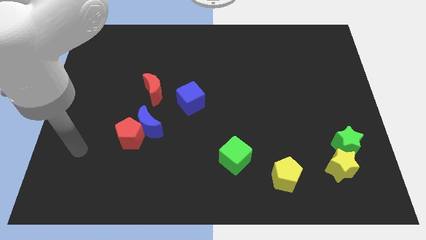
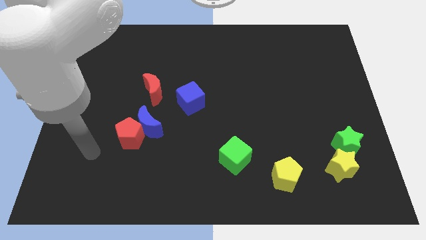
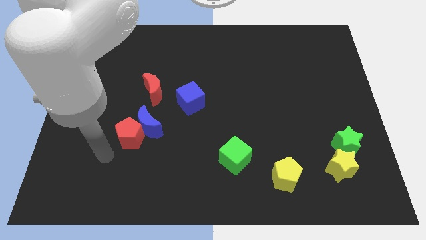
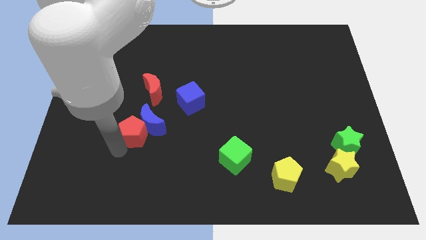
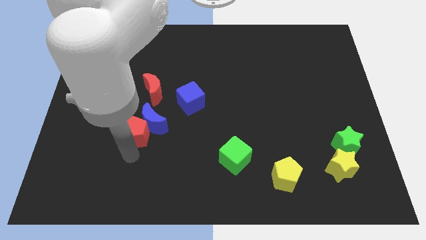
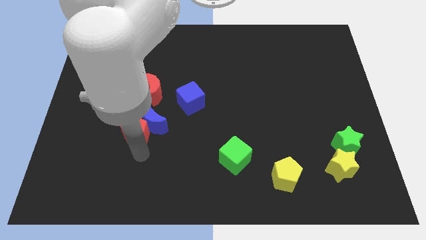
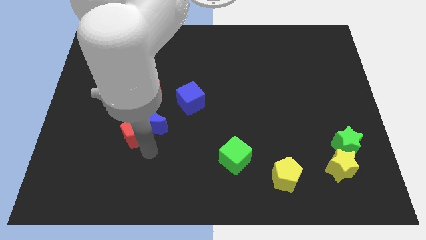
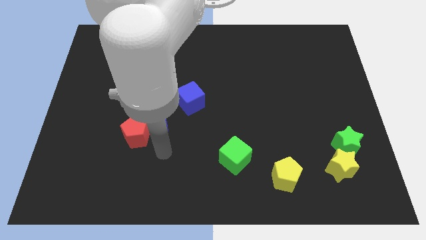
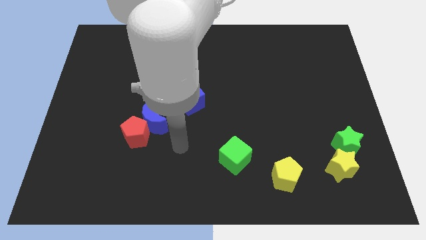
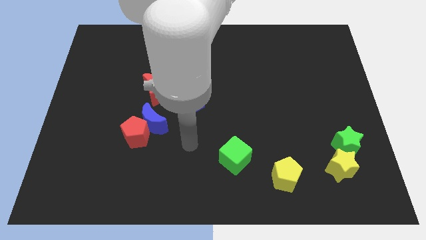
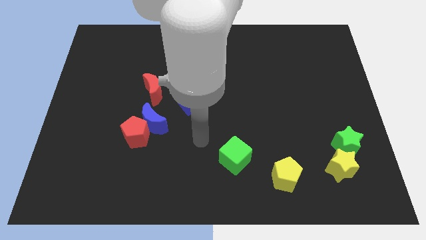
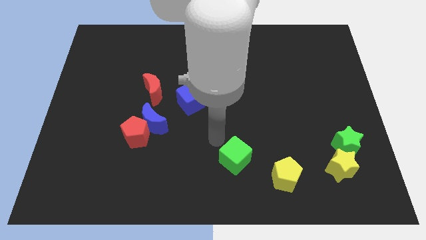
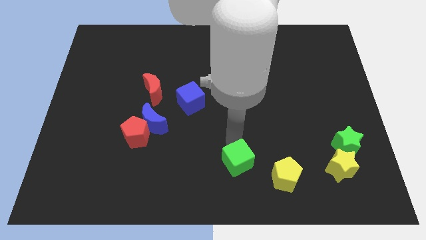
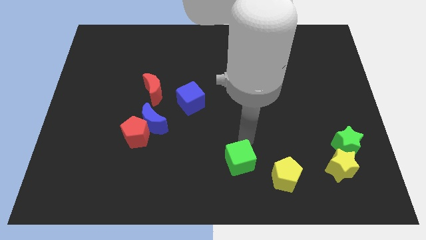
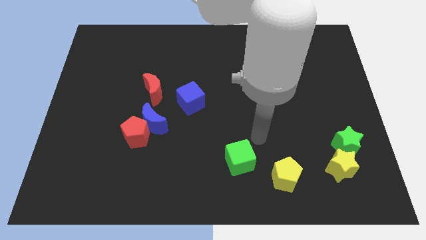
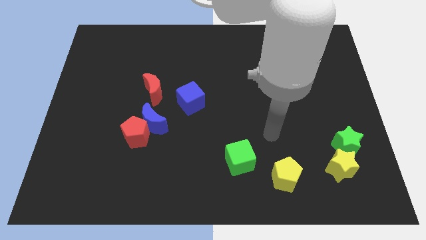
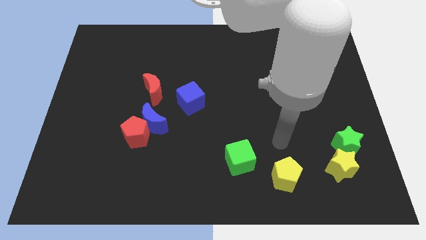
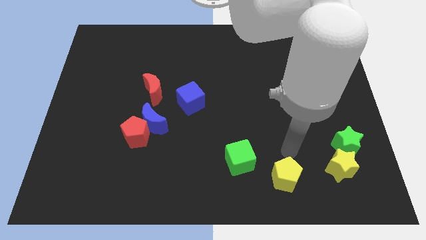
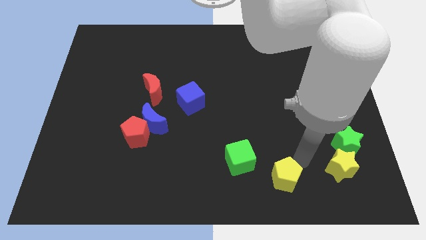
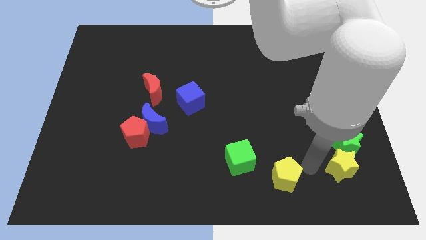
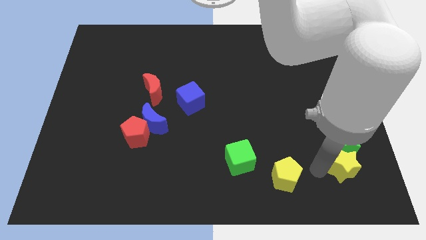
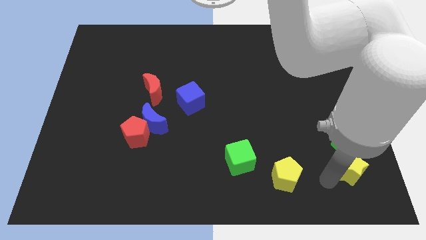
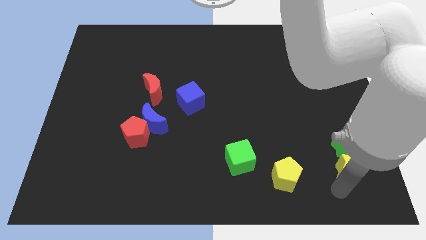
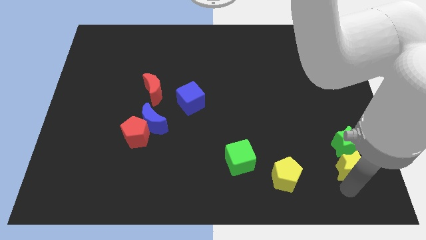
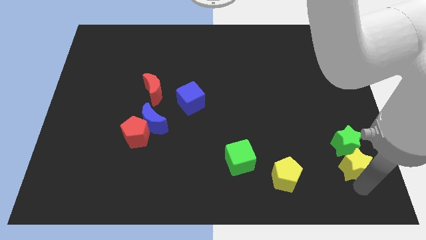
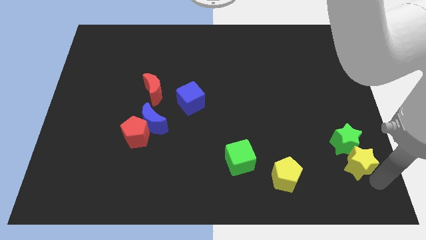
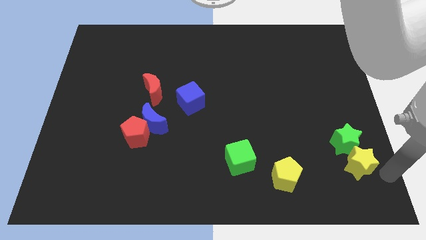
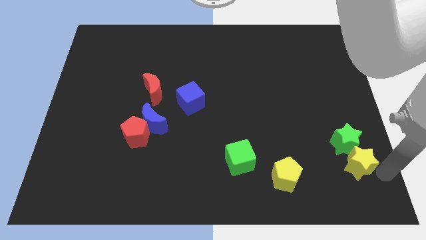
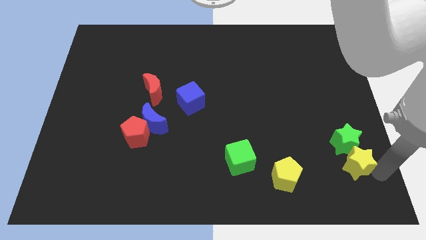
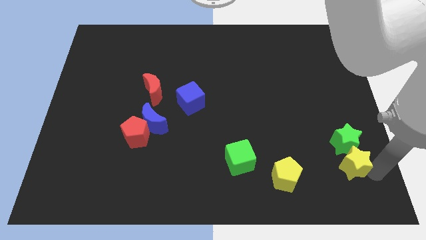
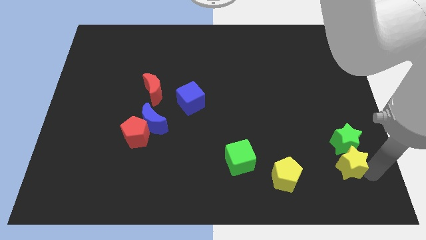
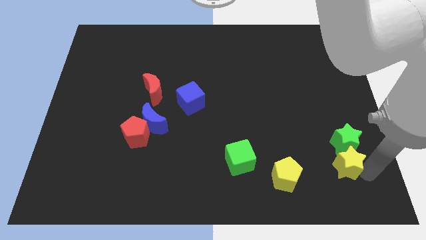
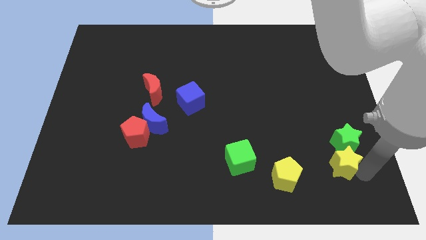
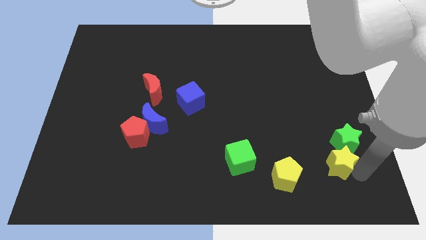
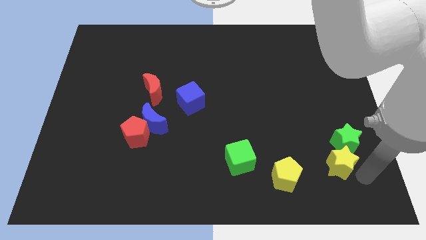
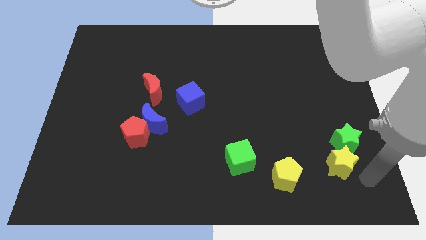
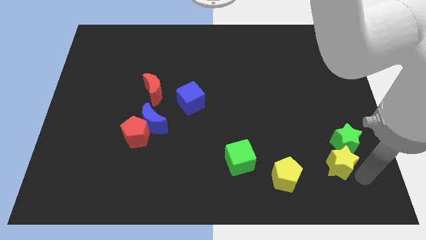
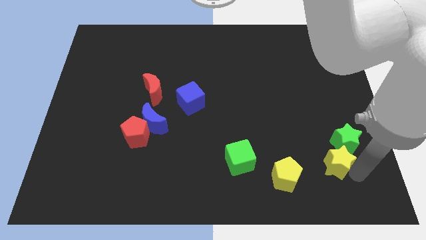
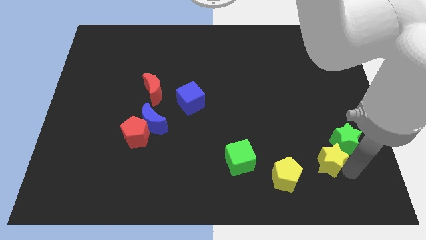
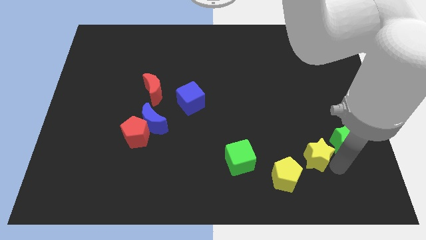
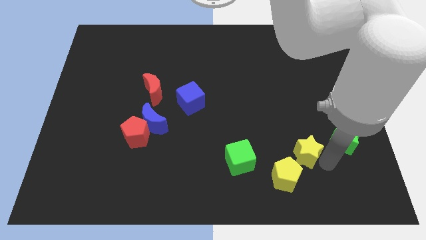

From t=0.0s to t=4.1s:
slightly push the yellow star up and left diagonally

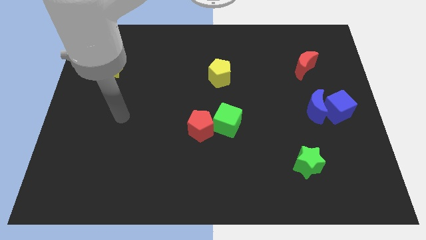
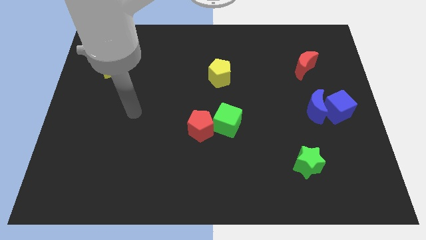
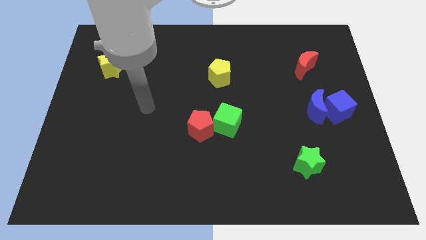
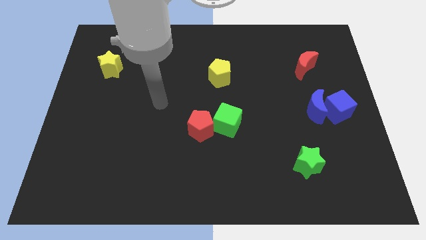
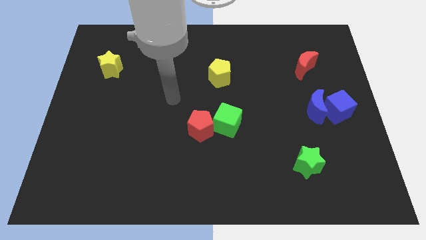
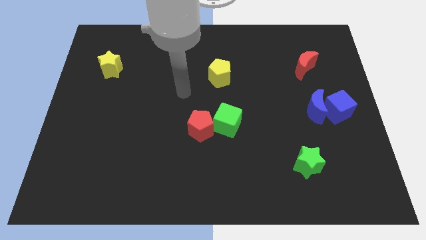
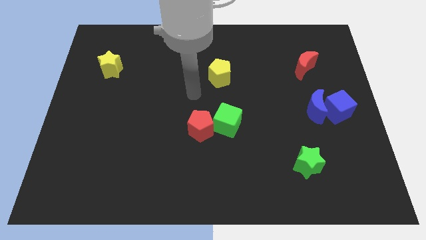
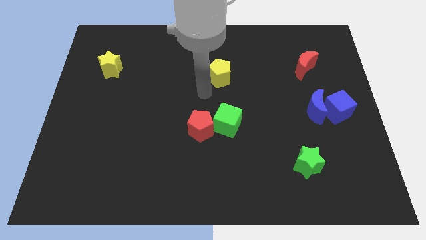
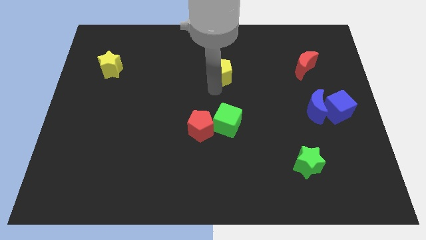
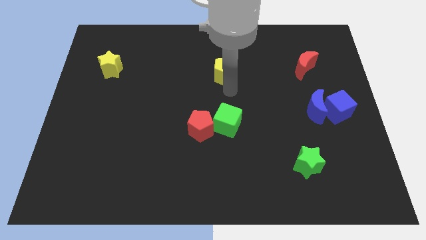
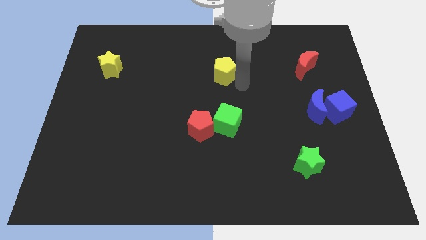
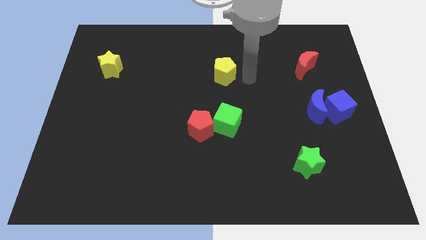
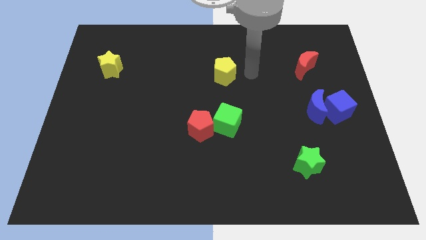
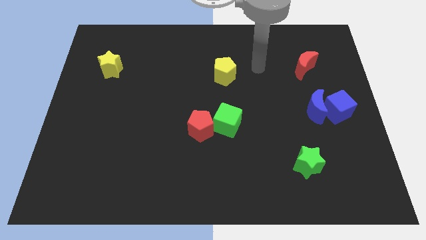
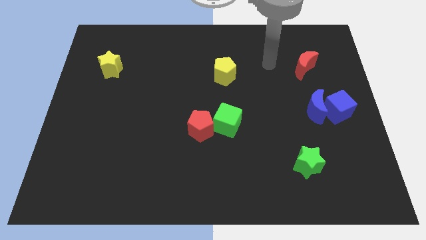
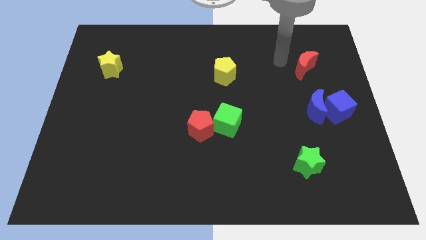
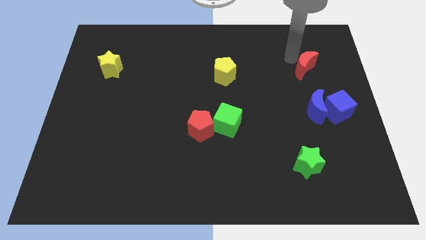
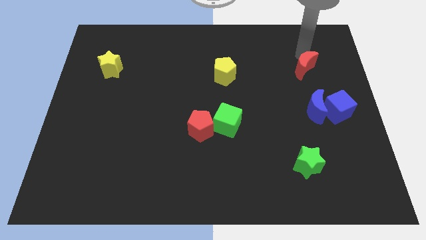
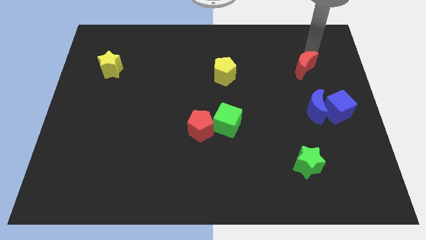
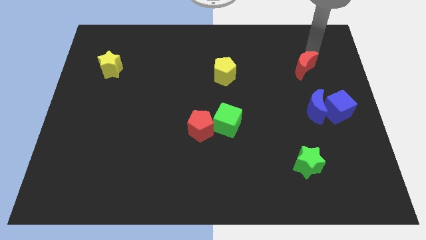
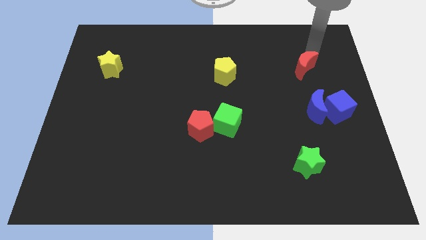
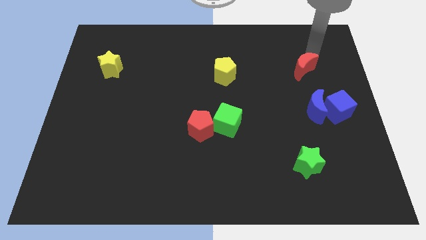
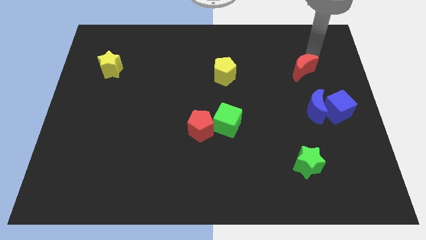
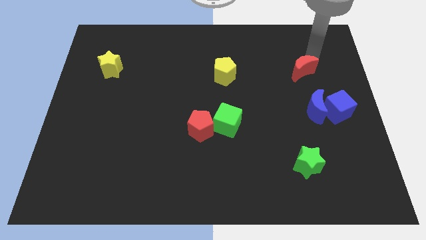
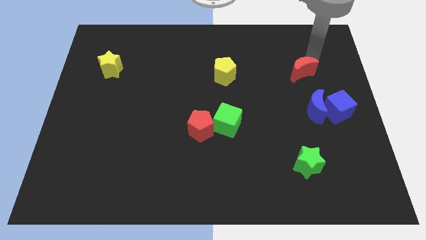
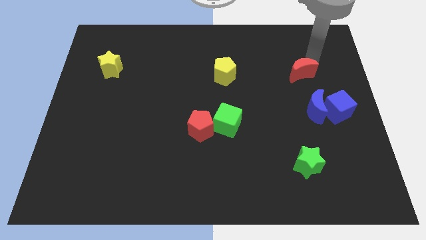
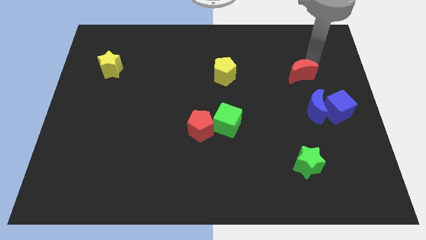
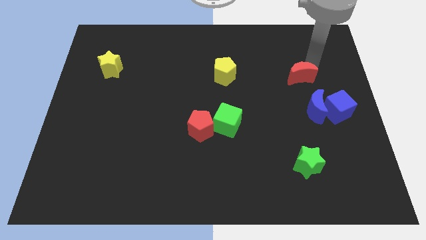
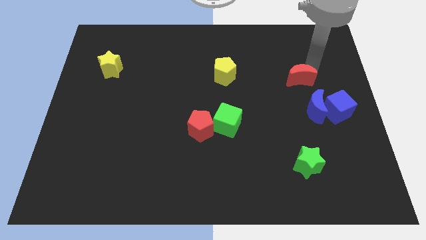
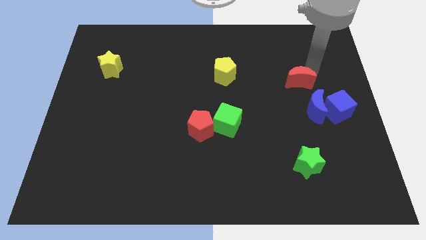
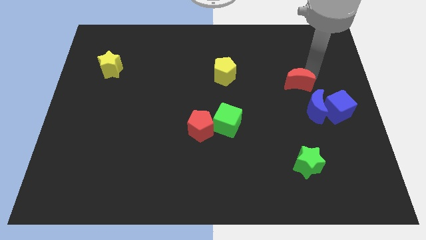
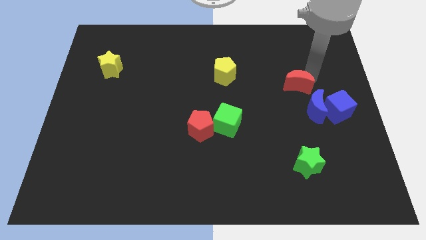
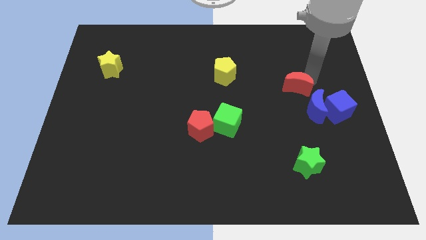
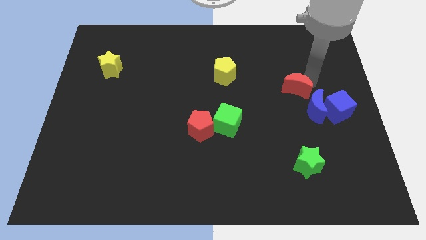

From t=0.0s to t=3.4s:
push the red moon a bit down

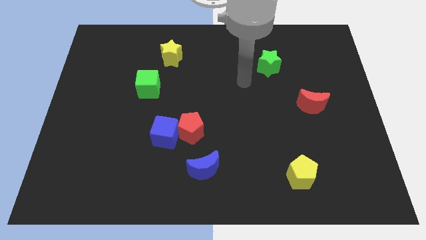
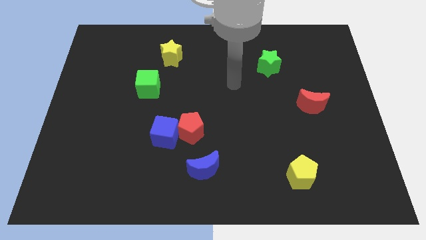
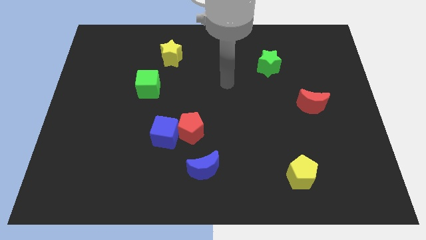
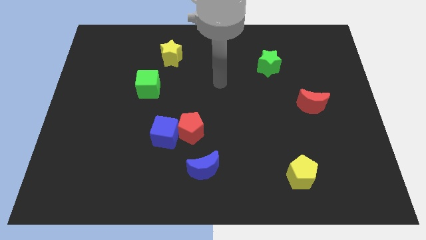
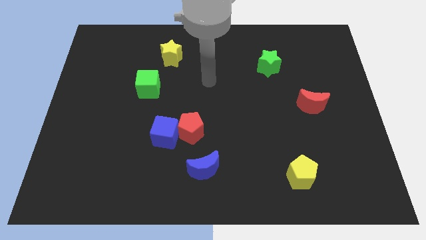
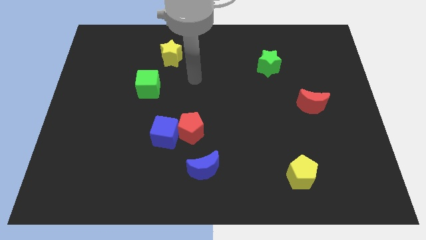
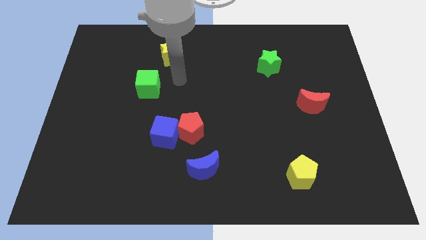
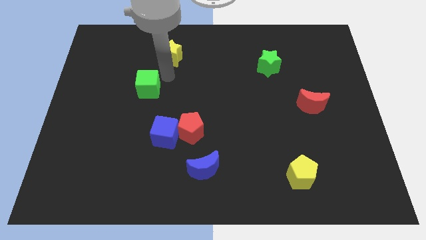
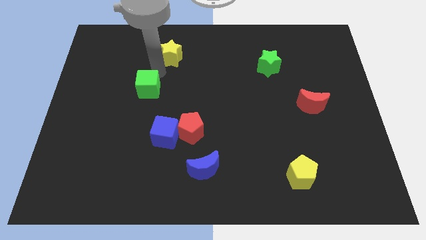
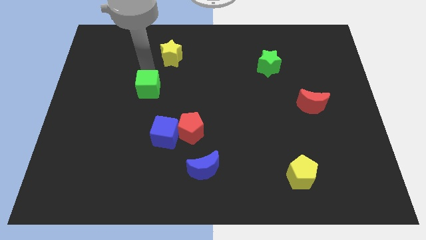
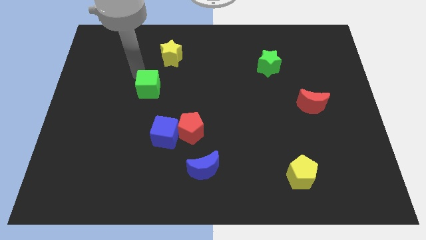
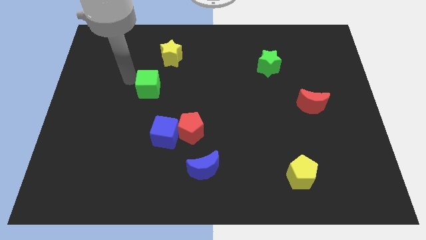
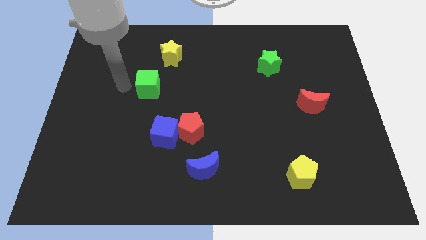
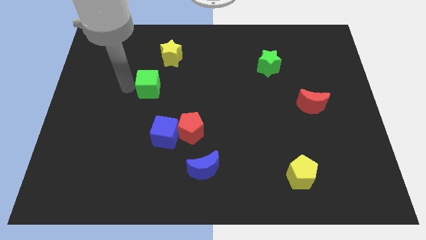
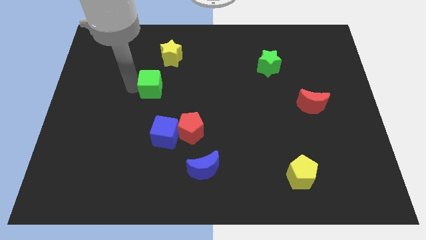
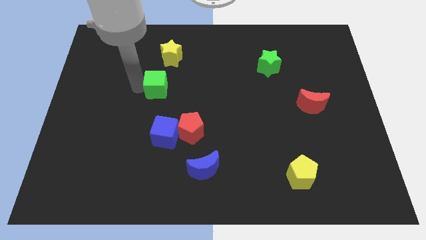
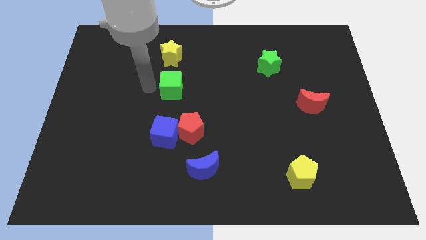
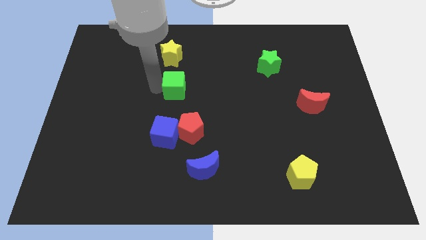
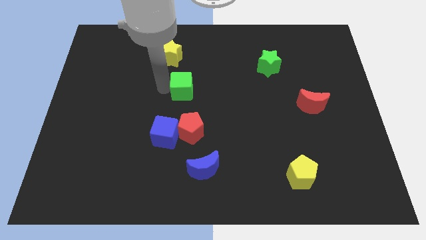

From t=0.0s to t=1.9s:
slightly push the green cube right
